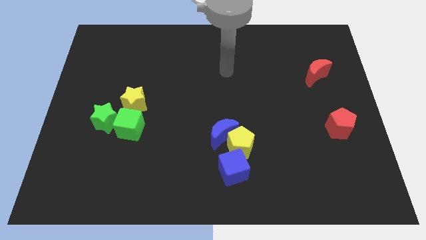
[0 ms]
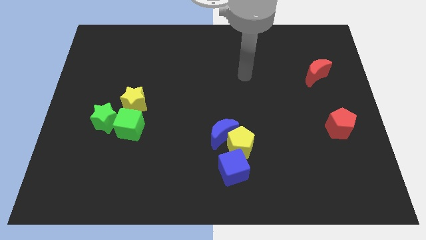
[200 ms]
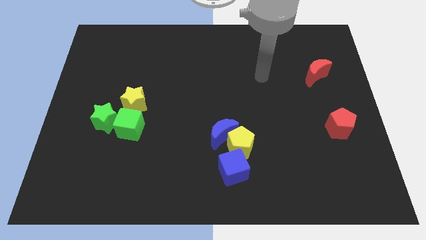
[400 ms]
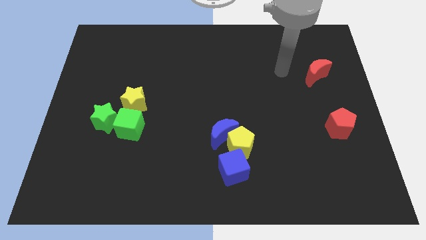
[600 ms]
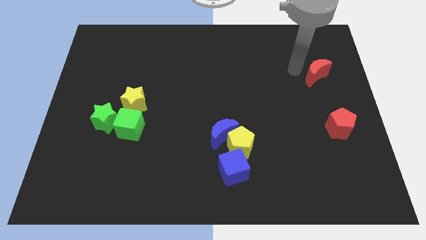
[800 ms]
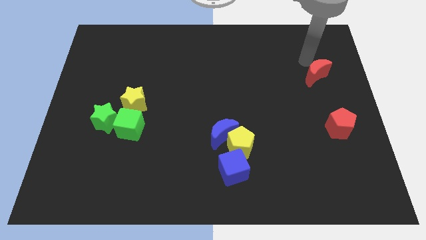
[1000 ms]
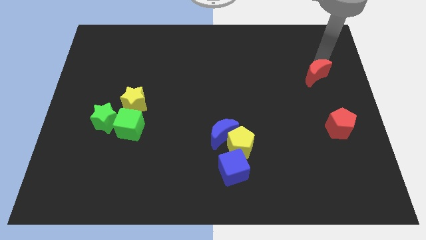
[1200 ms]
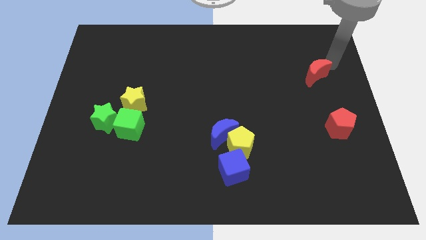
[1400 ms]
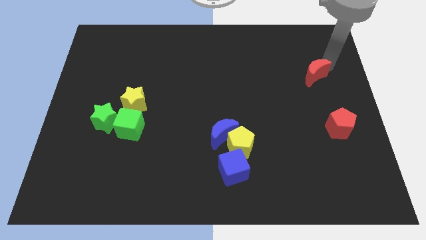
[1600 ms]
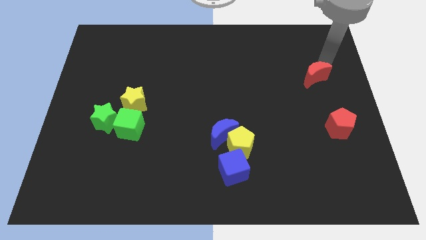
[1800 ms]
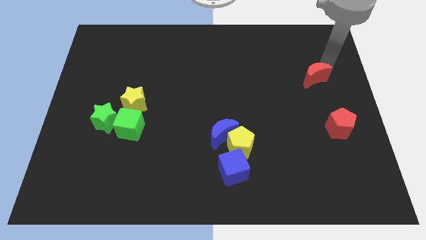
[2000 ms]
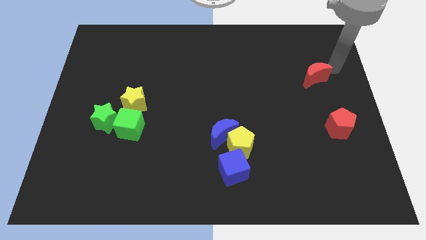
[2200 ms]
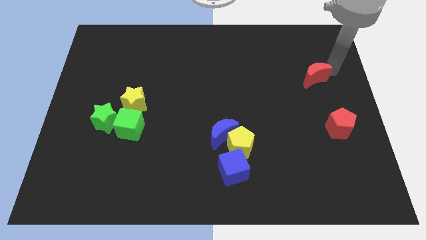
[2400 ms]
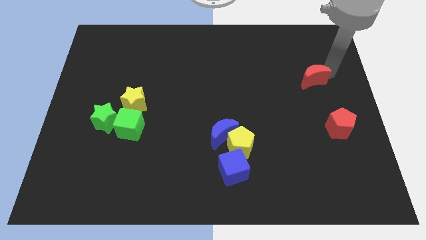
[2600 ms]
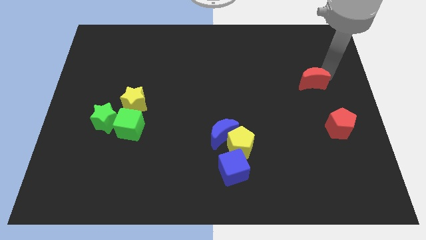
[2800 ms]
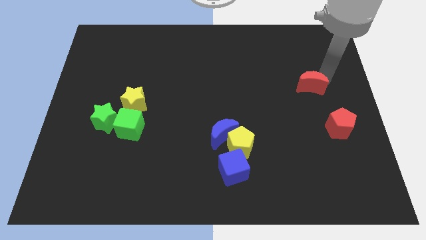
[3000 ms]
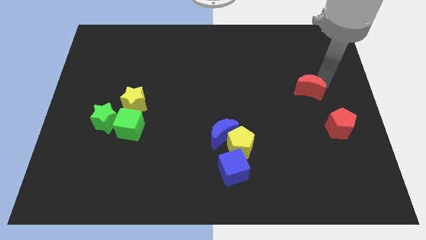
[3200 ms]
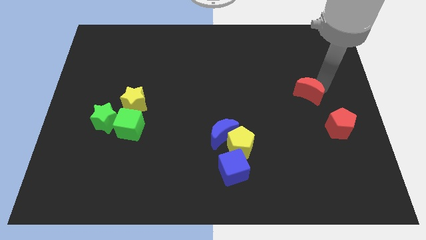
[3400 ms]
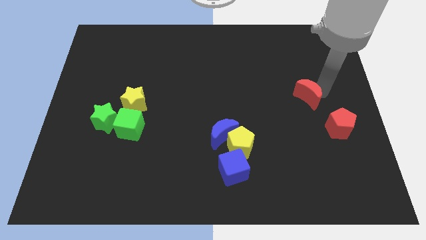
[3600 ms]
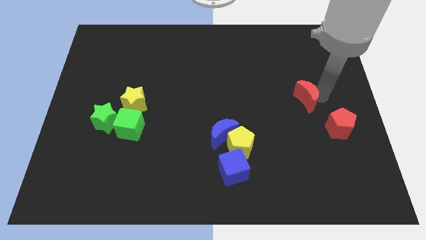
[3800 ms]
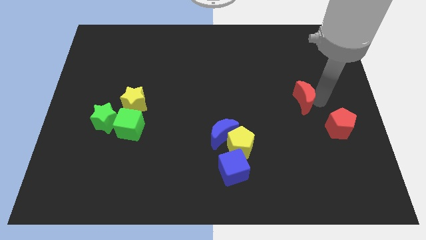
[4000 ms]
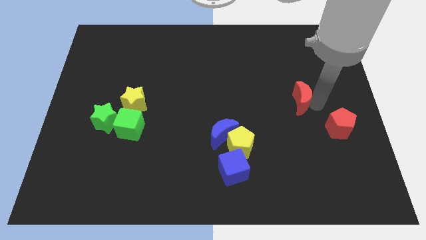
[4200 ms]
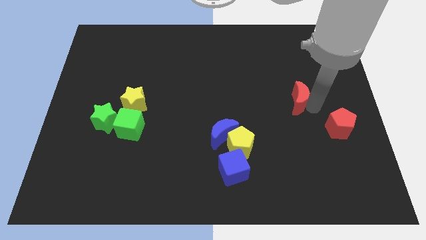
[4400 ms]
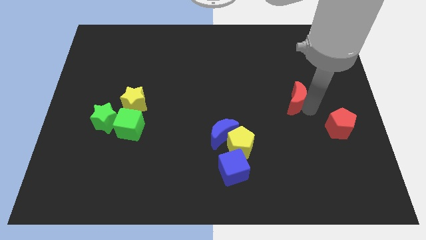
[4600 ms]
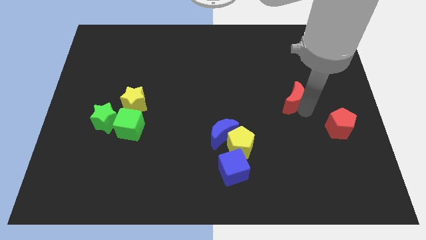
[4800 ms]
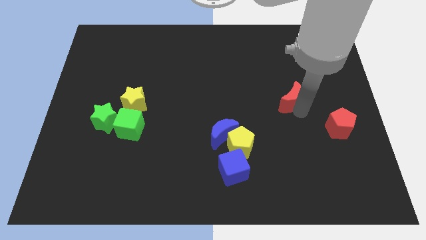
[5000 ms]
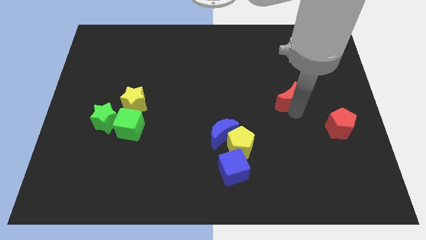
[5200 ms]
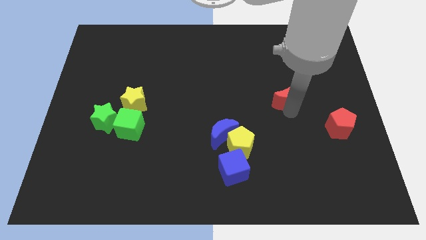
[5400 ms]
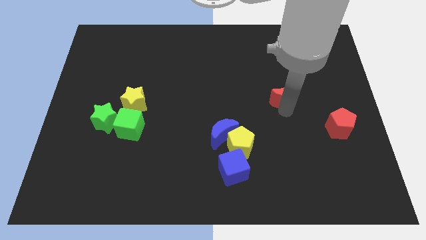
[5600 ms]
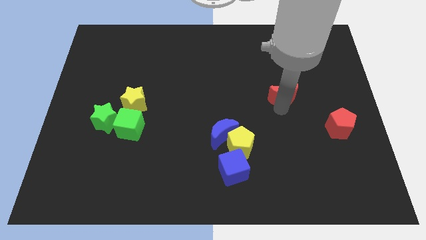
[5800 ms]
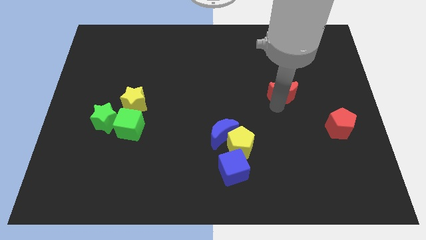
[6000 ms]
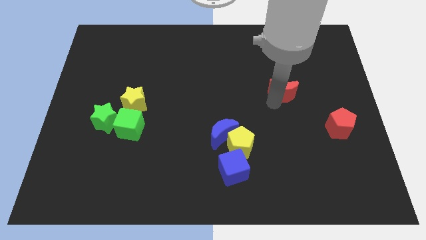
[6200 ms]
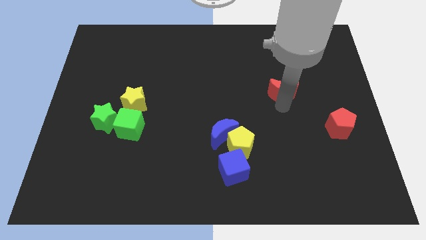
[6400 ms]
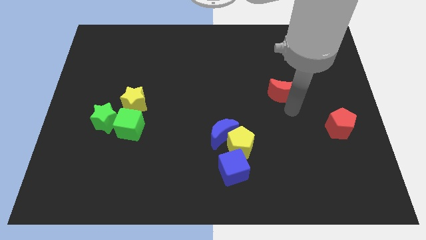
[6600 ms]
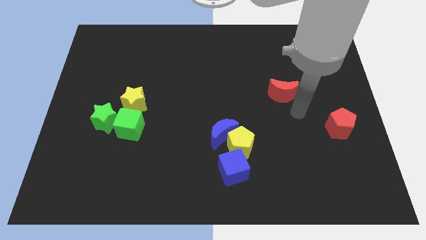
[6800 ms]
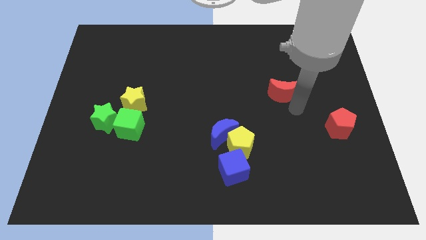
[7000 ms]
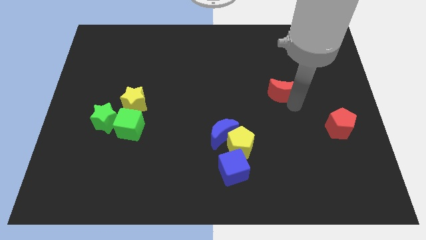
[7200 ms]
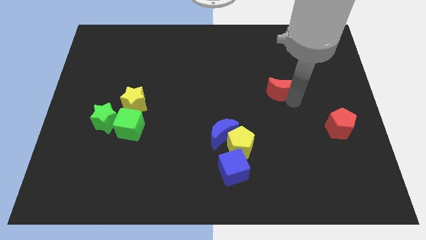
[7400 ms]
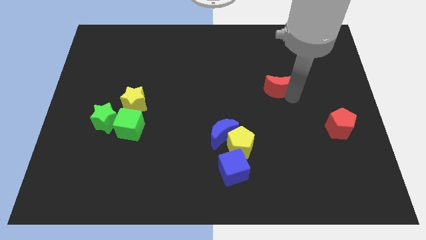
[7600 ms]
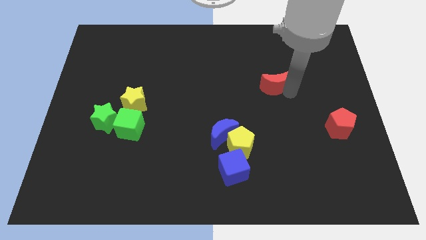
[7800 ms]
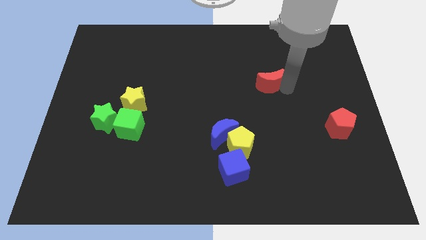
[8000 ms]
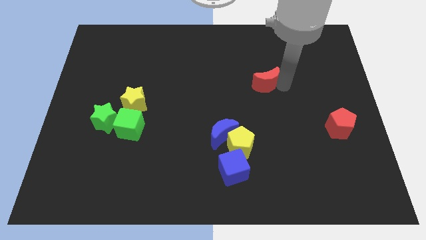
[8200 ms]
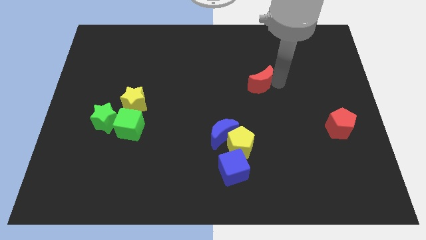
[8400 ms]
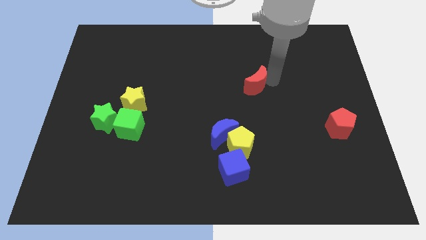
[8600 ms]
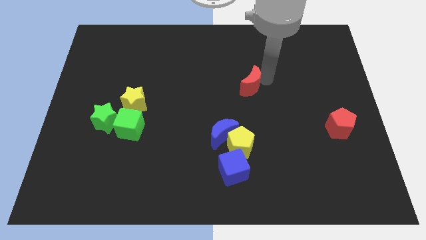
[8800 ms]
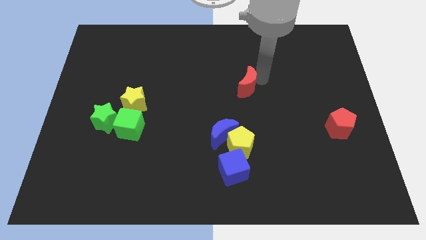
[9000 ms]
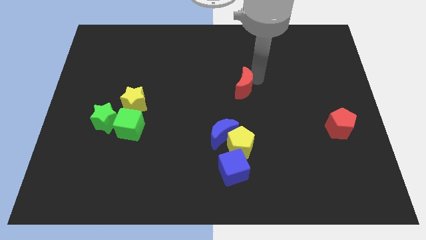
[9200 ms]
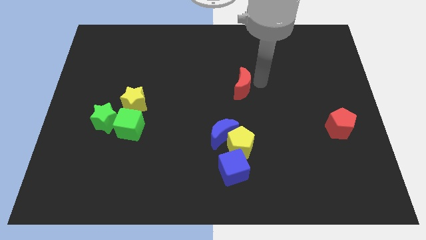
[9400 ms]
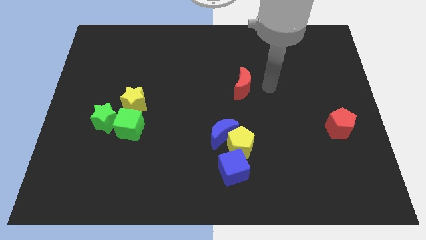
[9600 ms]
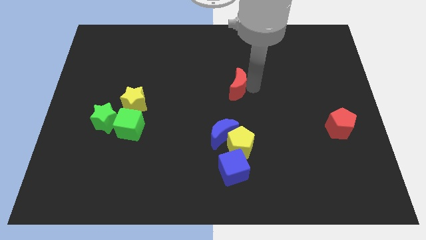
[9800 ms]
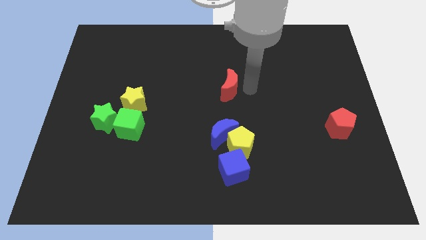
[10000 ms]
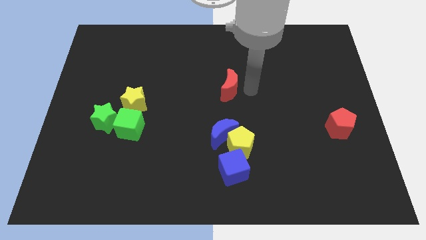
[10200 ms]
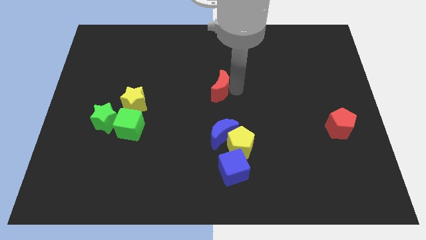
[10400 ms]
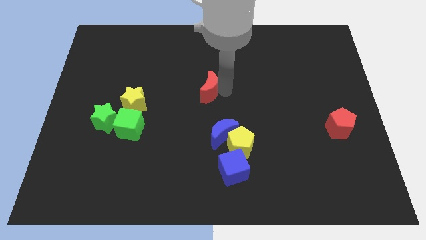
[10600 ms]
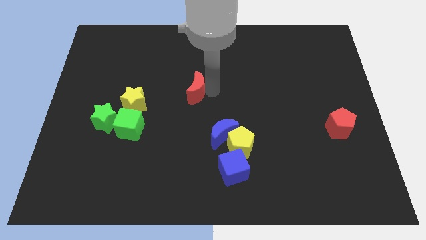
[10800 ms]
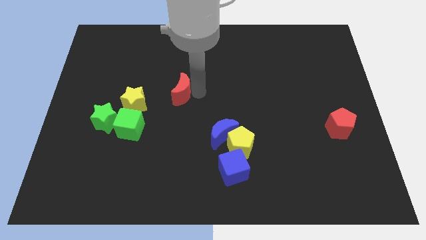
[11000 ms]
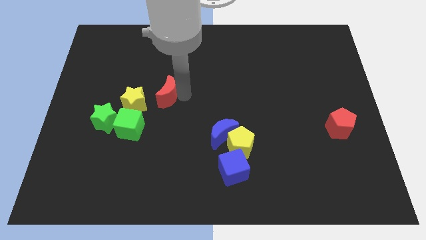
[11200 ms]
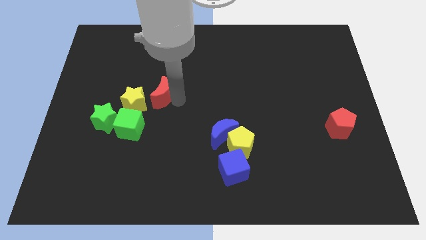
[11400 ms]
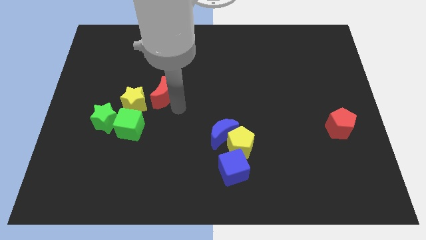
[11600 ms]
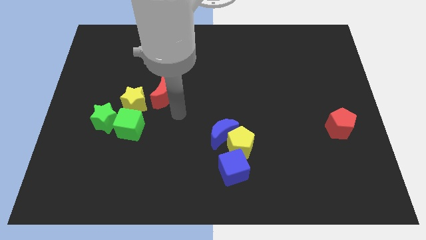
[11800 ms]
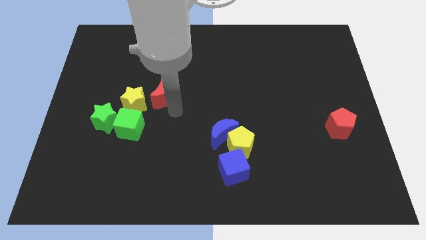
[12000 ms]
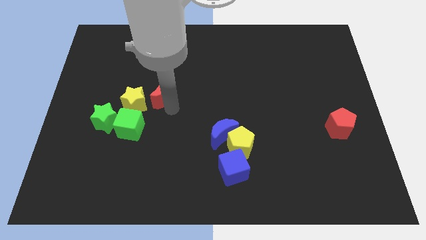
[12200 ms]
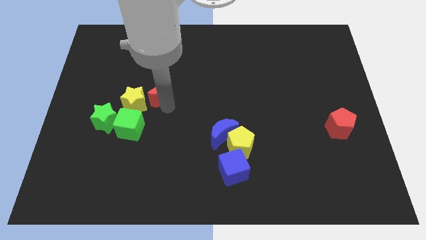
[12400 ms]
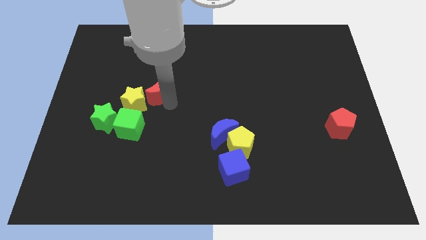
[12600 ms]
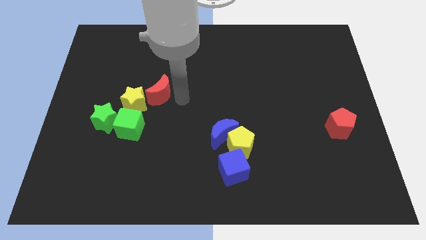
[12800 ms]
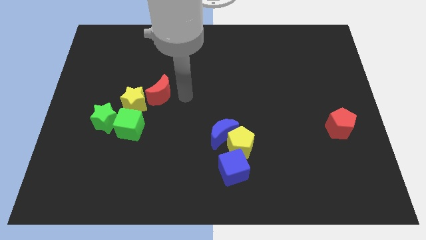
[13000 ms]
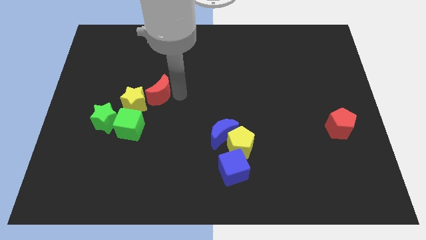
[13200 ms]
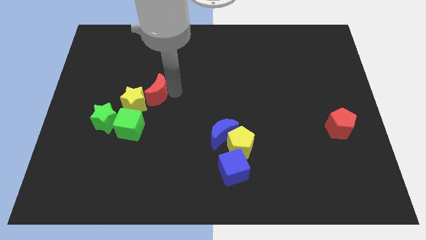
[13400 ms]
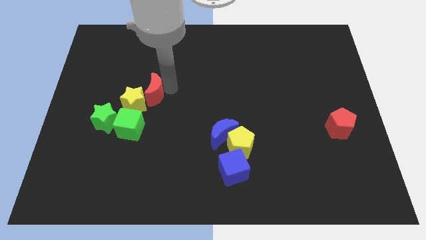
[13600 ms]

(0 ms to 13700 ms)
push the red moon to the top side of the green cube
